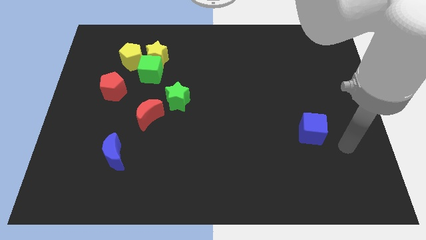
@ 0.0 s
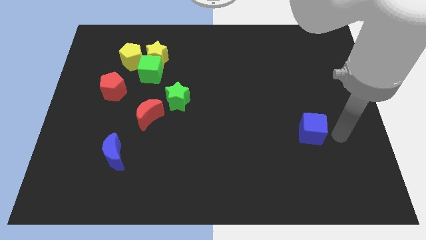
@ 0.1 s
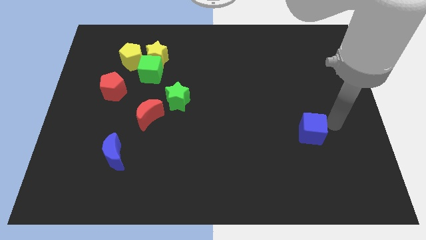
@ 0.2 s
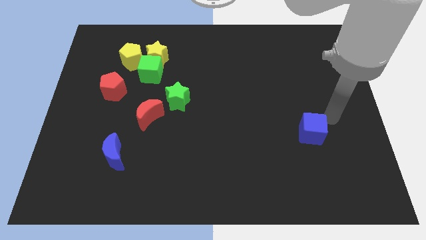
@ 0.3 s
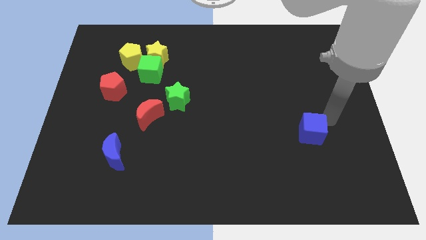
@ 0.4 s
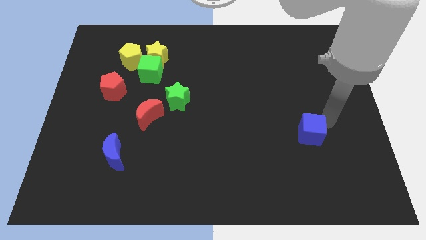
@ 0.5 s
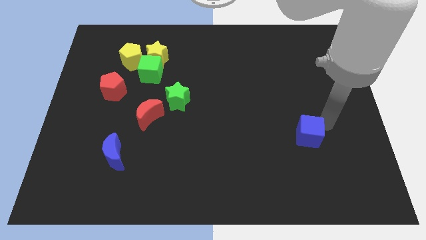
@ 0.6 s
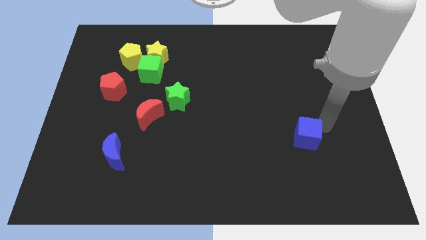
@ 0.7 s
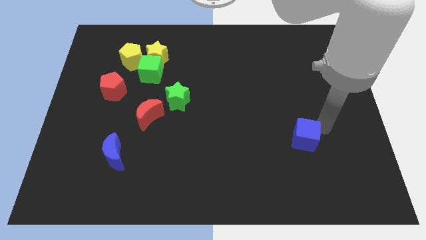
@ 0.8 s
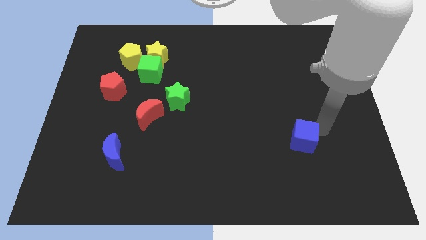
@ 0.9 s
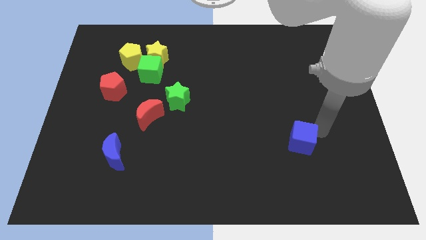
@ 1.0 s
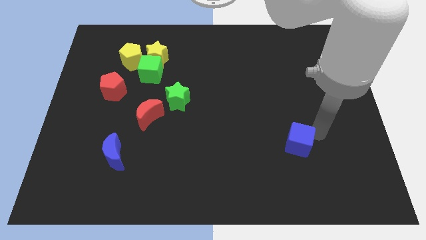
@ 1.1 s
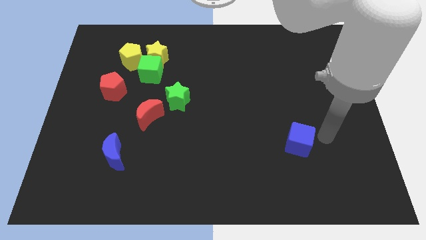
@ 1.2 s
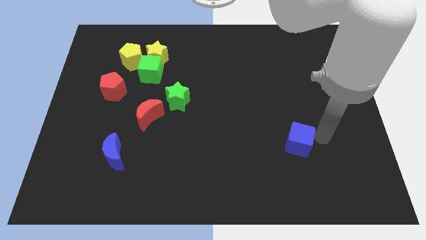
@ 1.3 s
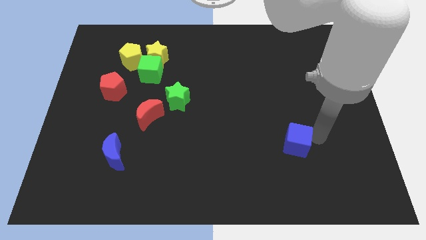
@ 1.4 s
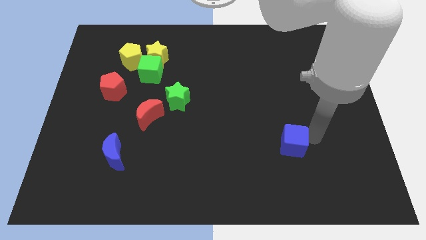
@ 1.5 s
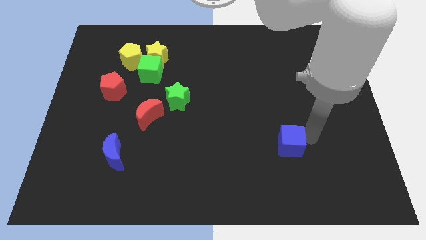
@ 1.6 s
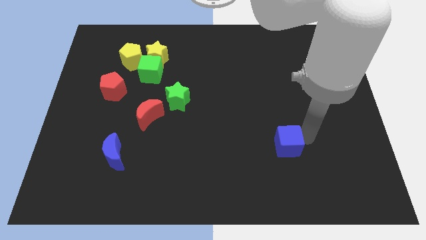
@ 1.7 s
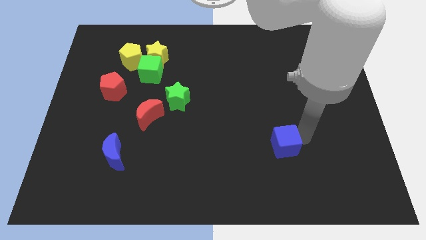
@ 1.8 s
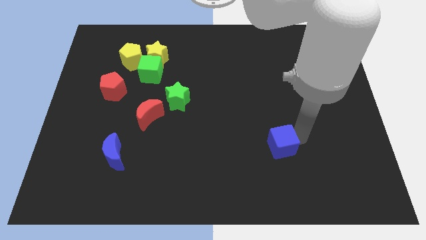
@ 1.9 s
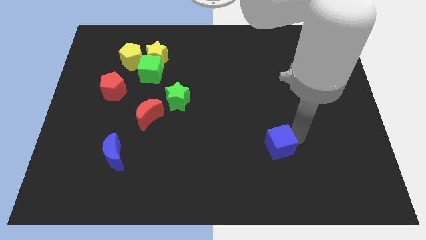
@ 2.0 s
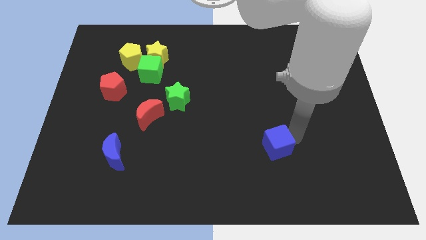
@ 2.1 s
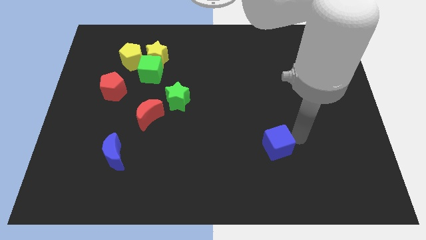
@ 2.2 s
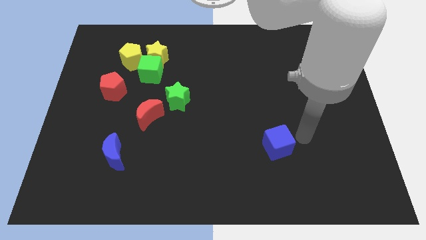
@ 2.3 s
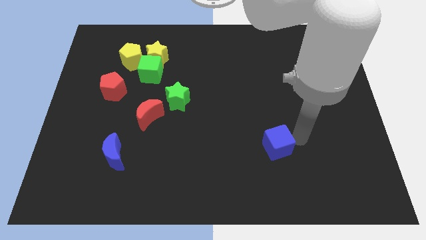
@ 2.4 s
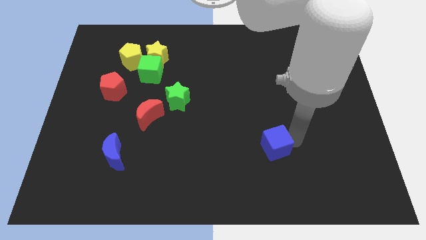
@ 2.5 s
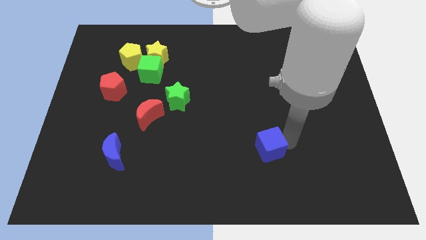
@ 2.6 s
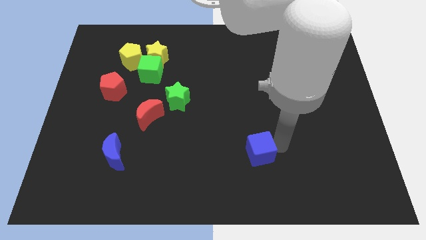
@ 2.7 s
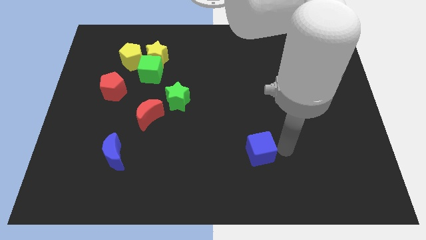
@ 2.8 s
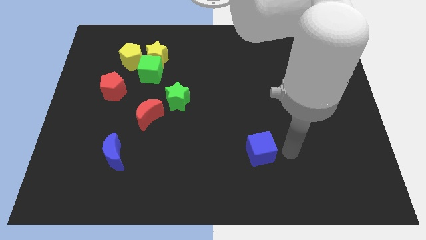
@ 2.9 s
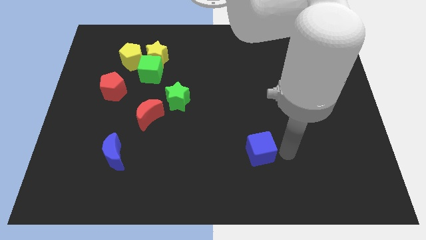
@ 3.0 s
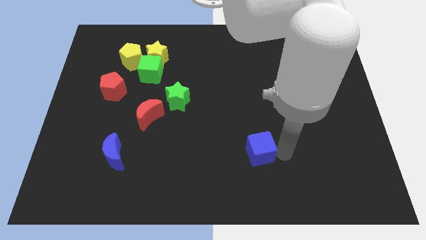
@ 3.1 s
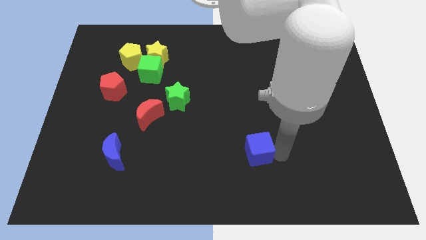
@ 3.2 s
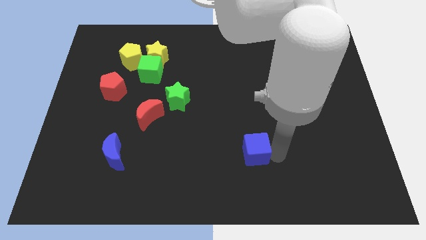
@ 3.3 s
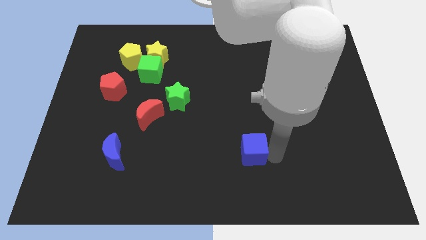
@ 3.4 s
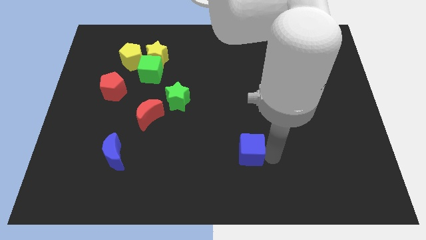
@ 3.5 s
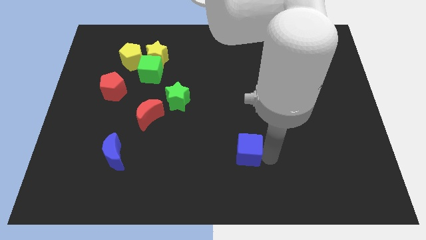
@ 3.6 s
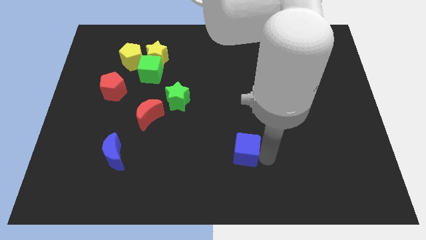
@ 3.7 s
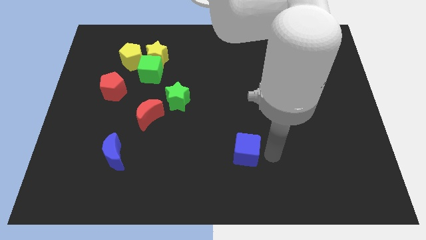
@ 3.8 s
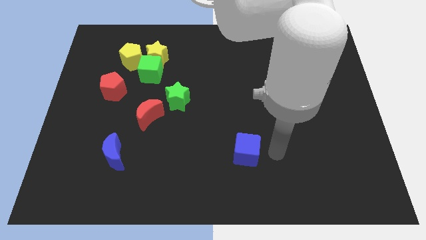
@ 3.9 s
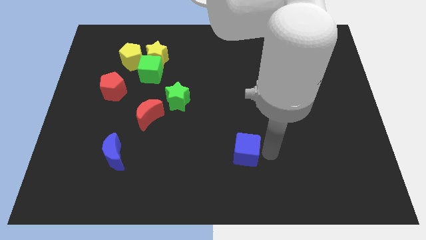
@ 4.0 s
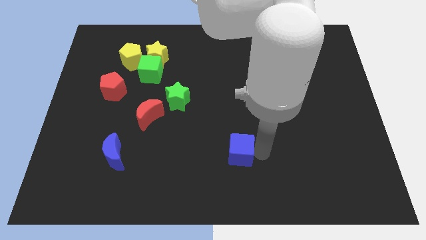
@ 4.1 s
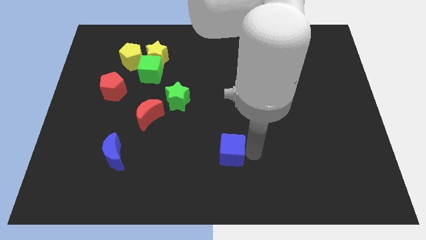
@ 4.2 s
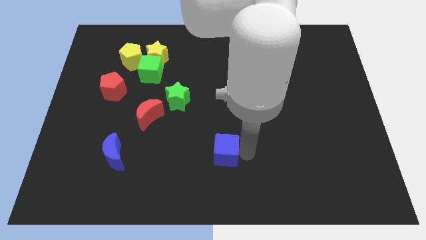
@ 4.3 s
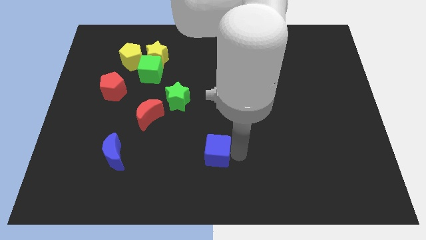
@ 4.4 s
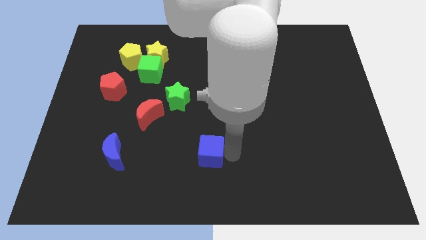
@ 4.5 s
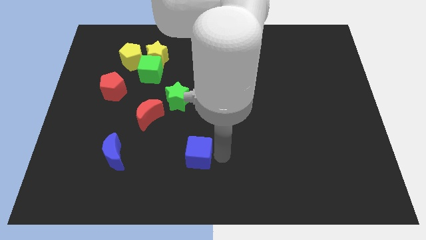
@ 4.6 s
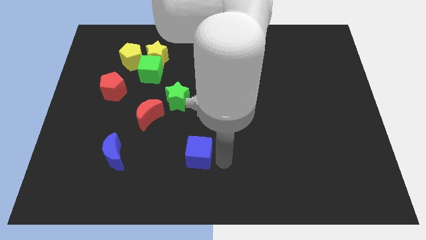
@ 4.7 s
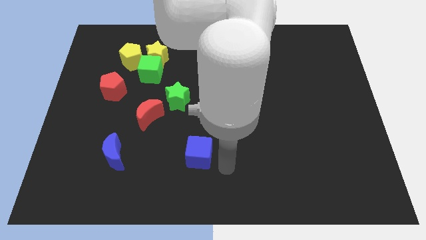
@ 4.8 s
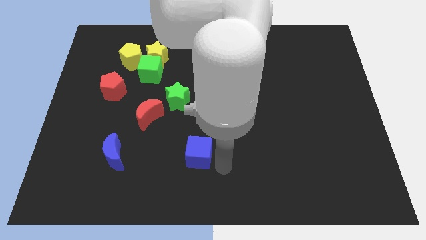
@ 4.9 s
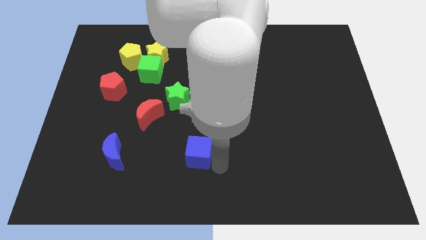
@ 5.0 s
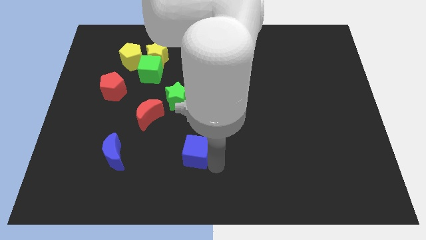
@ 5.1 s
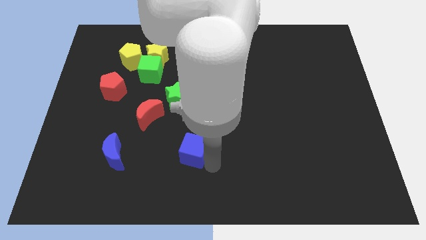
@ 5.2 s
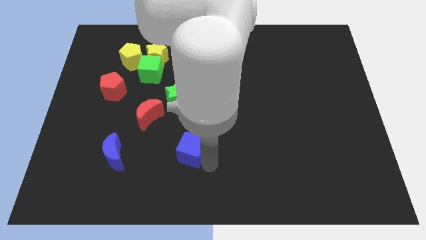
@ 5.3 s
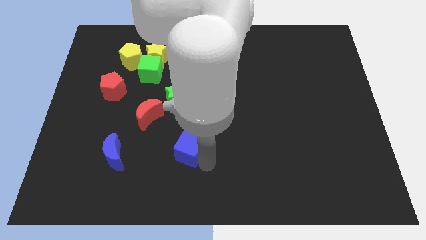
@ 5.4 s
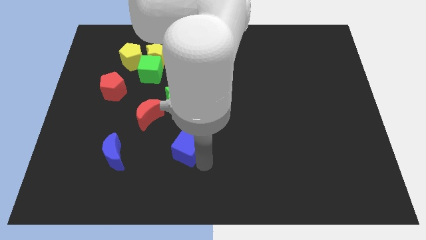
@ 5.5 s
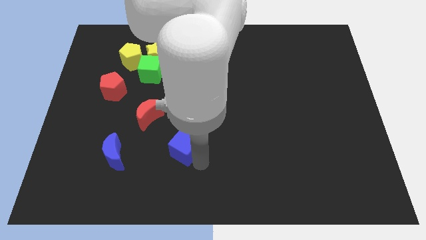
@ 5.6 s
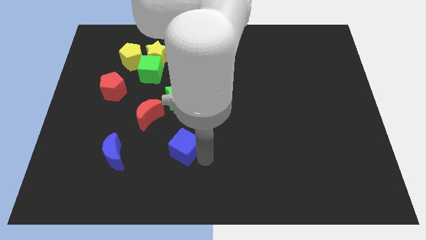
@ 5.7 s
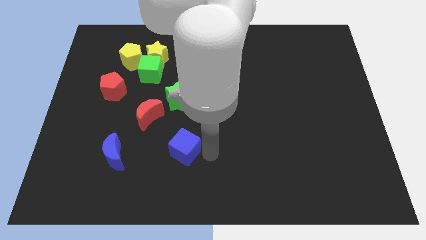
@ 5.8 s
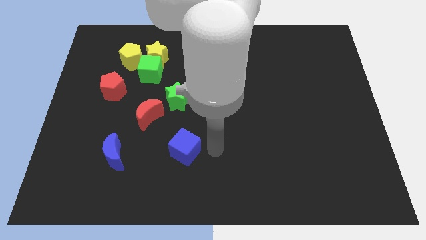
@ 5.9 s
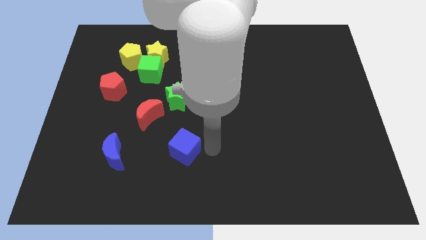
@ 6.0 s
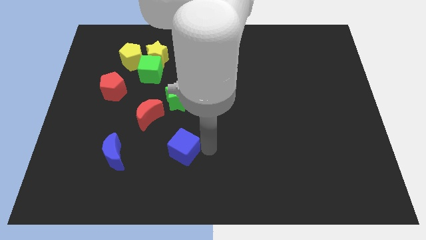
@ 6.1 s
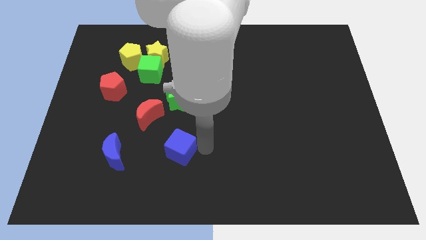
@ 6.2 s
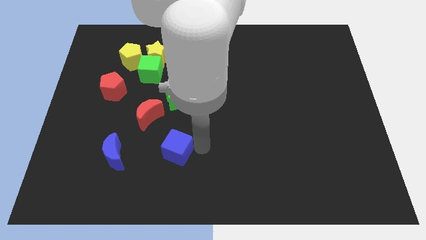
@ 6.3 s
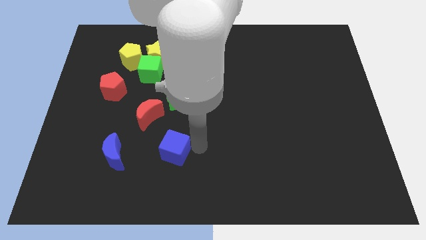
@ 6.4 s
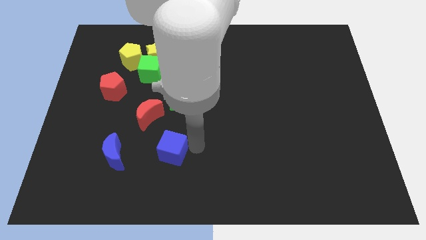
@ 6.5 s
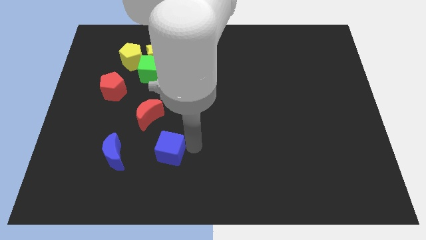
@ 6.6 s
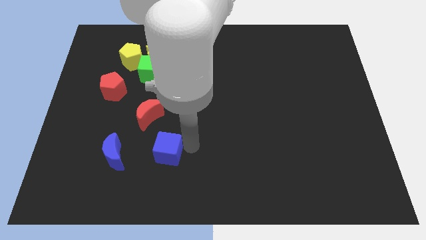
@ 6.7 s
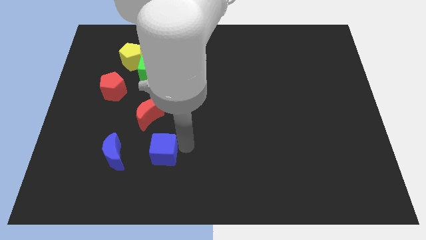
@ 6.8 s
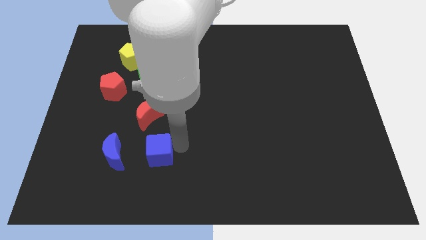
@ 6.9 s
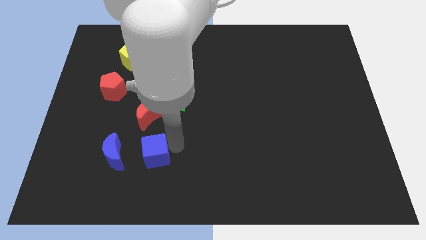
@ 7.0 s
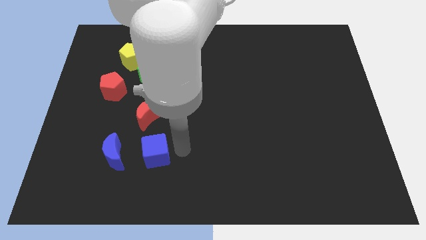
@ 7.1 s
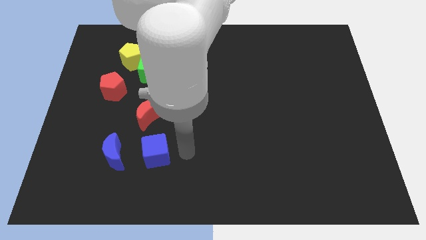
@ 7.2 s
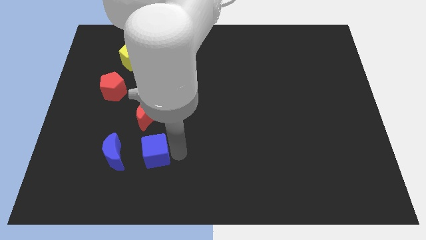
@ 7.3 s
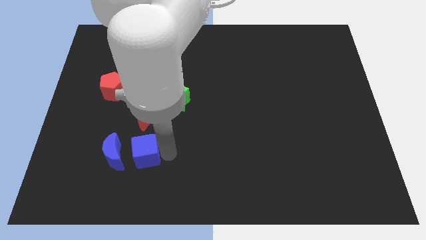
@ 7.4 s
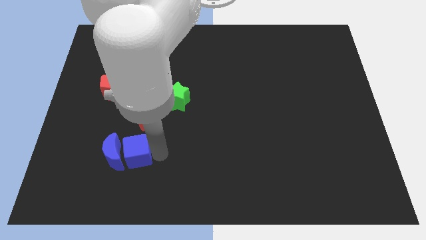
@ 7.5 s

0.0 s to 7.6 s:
move the blue cube towards the blue moon
